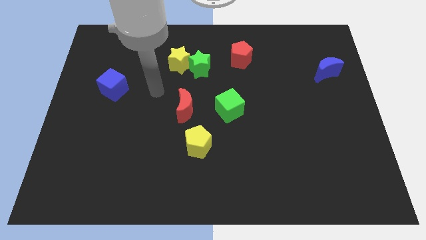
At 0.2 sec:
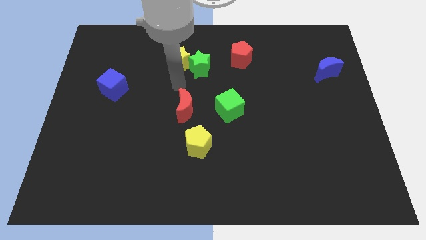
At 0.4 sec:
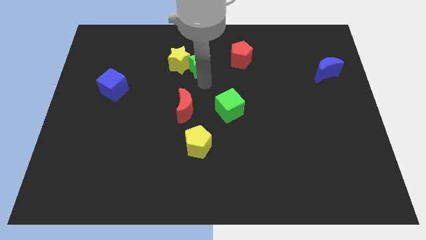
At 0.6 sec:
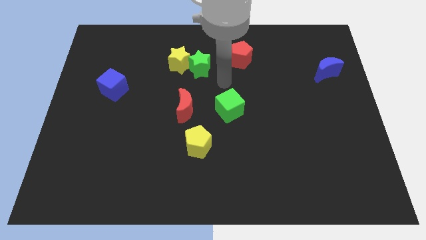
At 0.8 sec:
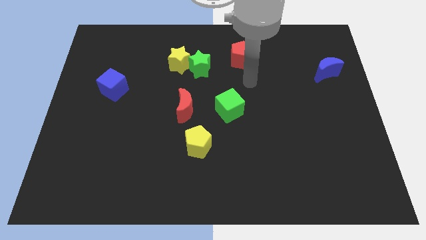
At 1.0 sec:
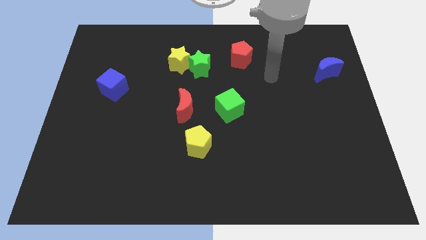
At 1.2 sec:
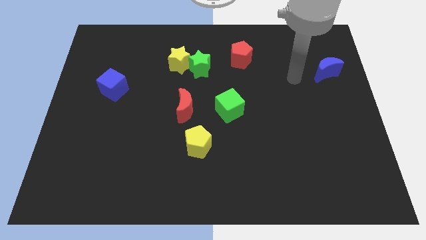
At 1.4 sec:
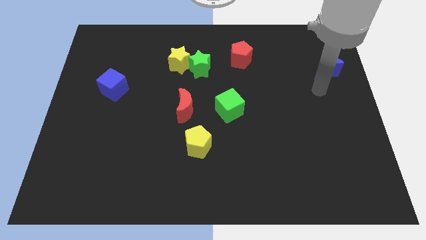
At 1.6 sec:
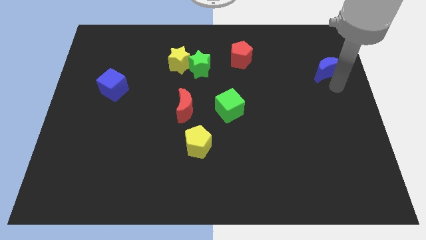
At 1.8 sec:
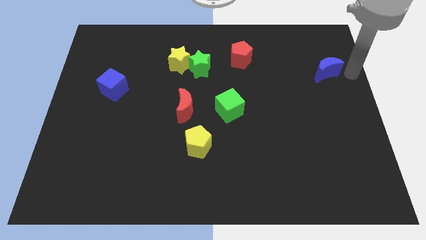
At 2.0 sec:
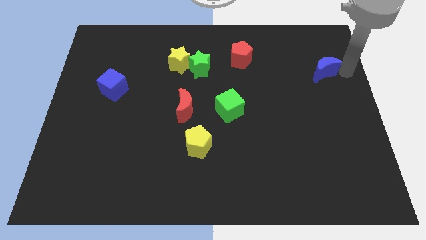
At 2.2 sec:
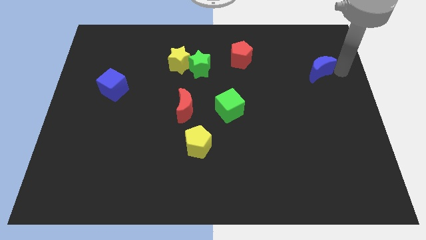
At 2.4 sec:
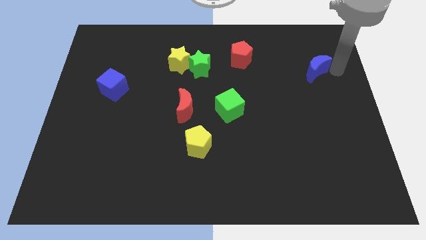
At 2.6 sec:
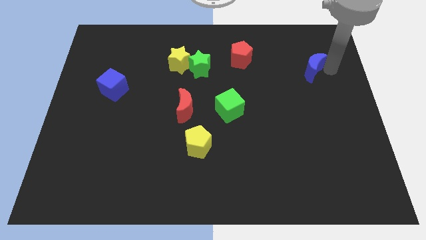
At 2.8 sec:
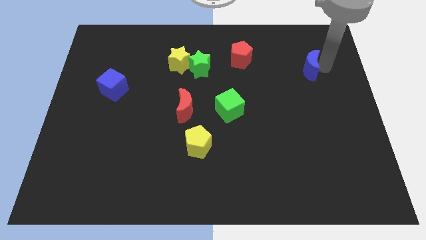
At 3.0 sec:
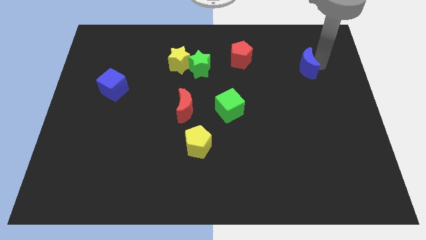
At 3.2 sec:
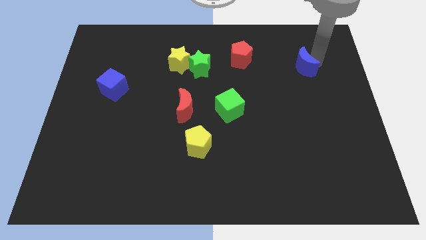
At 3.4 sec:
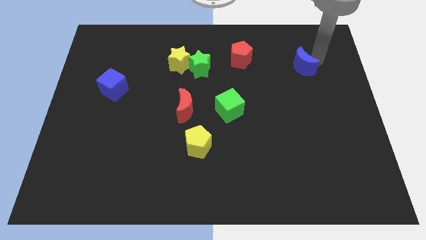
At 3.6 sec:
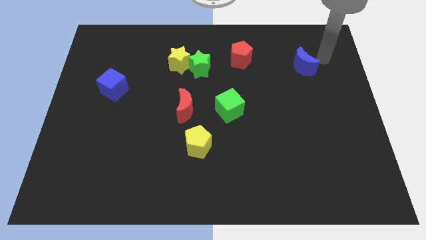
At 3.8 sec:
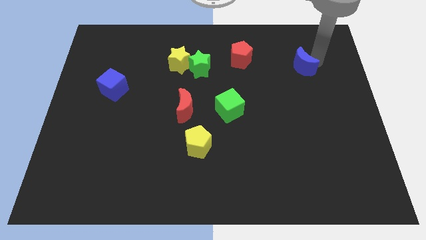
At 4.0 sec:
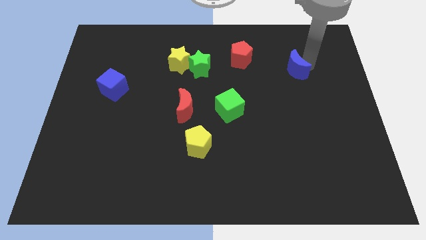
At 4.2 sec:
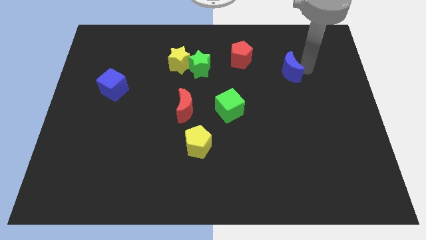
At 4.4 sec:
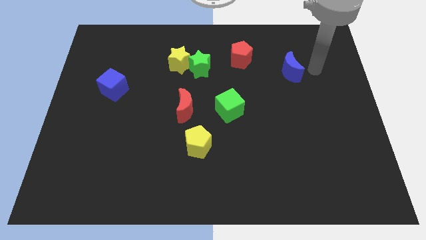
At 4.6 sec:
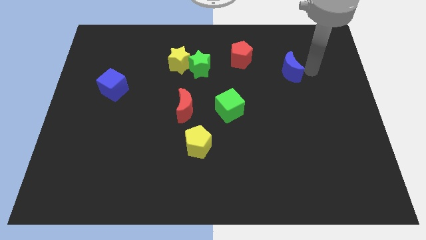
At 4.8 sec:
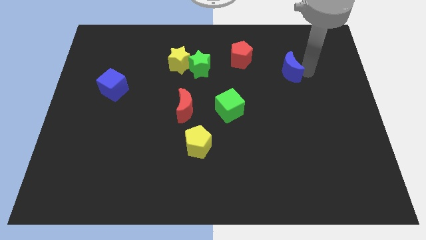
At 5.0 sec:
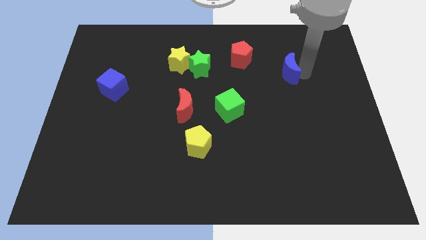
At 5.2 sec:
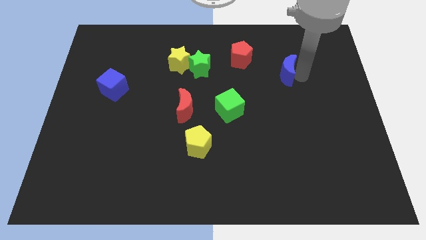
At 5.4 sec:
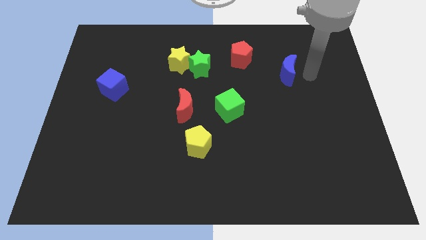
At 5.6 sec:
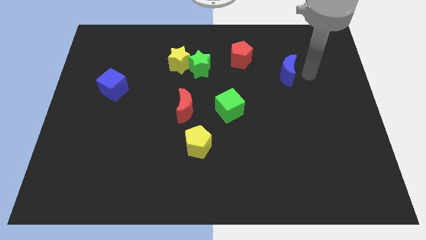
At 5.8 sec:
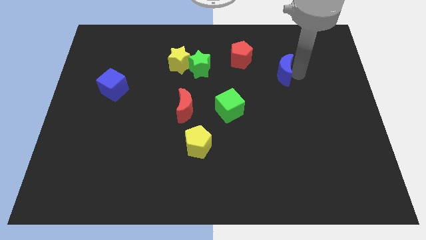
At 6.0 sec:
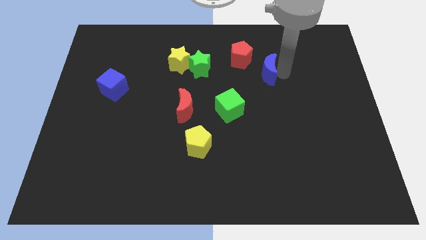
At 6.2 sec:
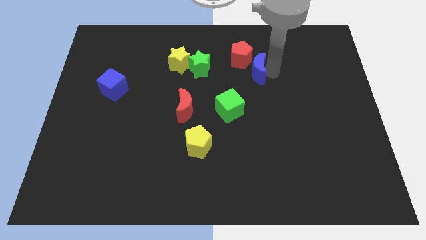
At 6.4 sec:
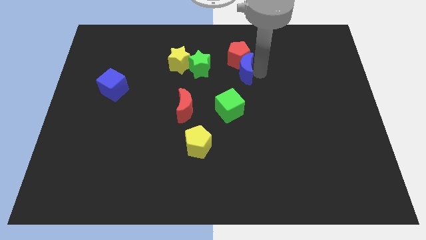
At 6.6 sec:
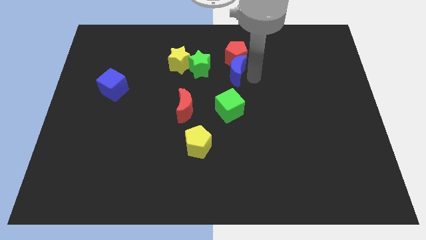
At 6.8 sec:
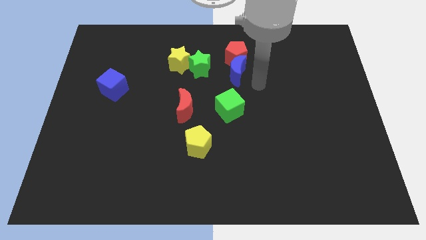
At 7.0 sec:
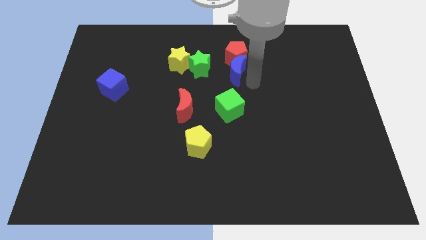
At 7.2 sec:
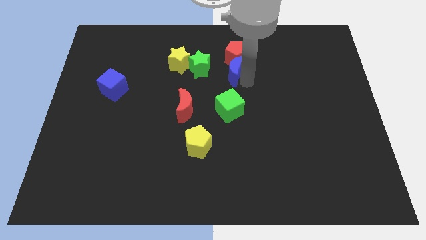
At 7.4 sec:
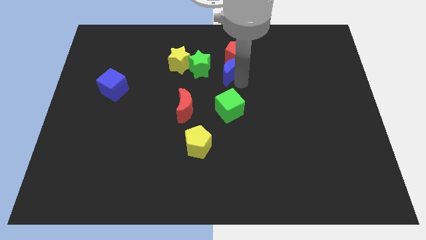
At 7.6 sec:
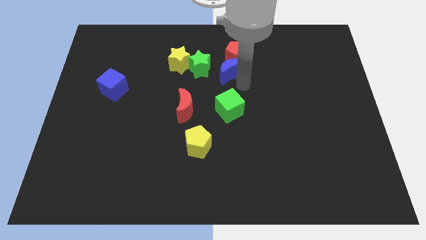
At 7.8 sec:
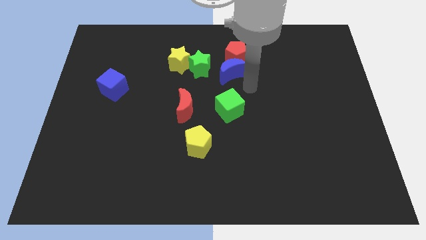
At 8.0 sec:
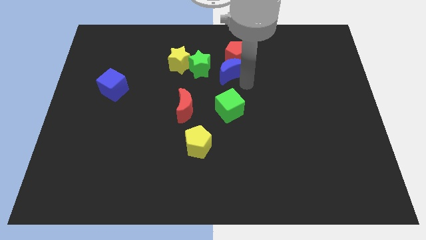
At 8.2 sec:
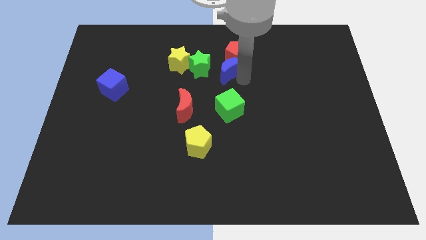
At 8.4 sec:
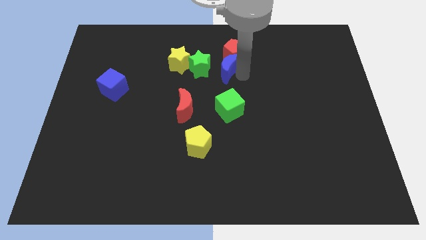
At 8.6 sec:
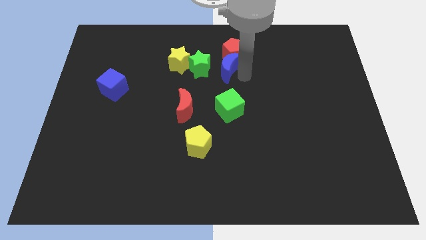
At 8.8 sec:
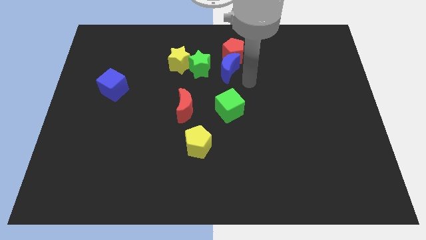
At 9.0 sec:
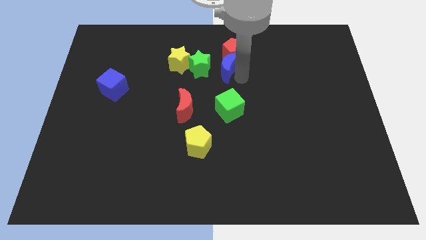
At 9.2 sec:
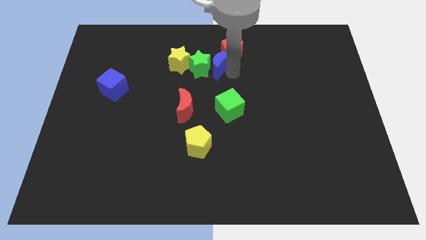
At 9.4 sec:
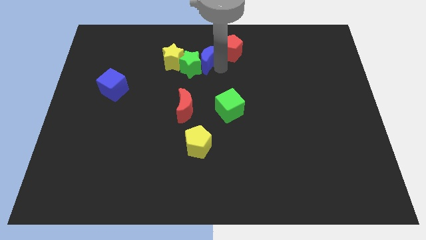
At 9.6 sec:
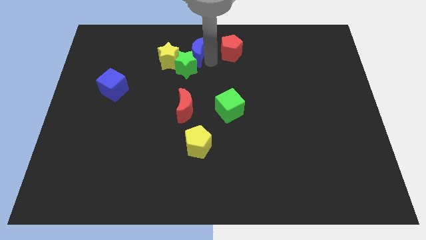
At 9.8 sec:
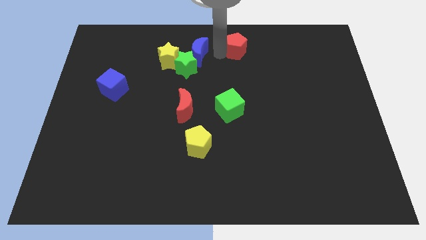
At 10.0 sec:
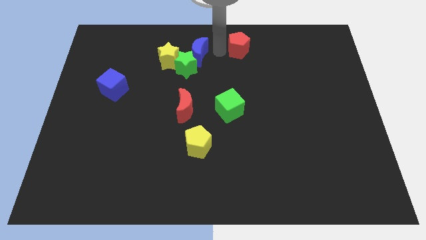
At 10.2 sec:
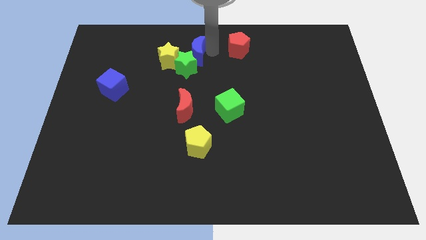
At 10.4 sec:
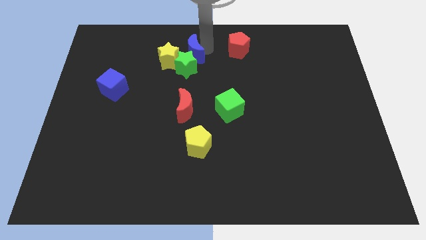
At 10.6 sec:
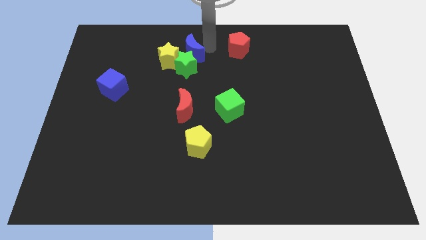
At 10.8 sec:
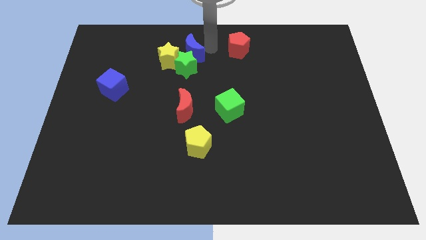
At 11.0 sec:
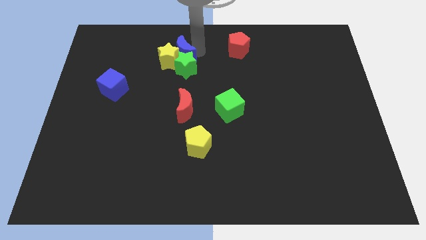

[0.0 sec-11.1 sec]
push the blue moon close to the yellow star

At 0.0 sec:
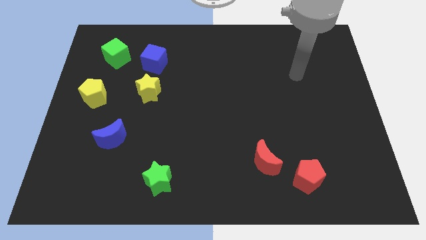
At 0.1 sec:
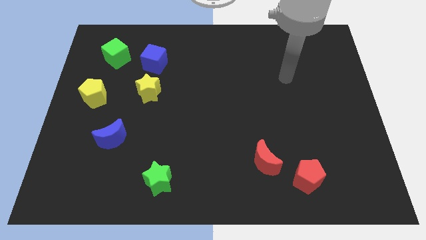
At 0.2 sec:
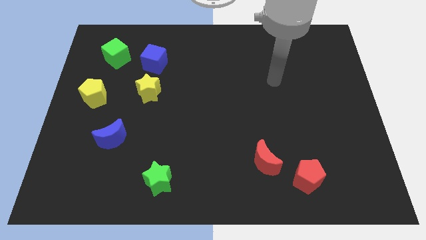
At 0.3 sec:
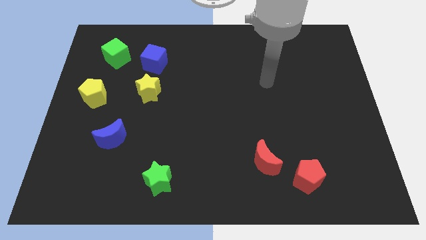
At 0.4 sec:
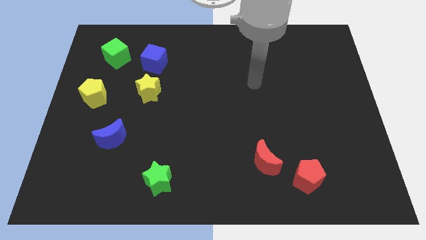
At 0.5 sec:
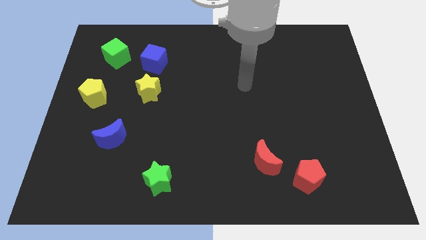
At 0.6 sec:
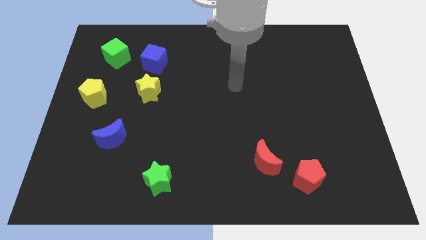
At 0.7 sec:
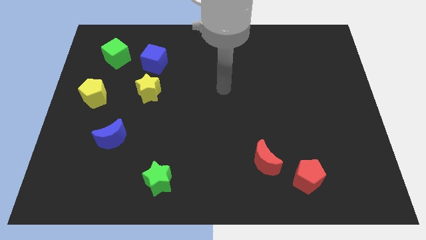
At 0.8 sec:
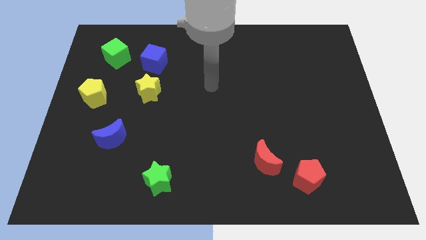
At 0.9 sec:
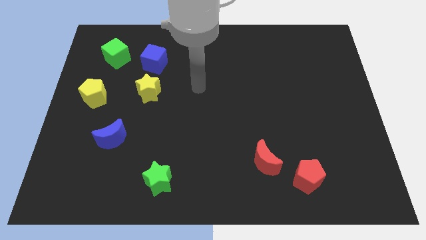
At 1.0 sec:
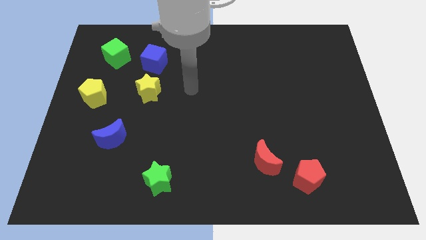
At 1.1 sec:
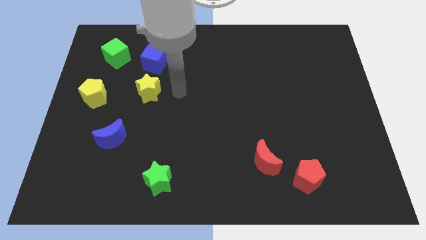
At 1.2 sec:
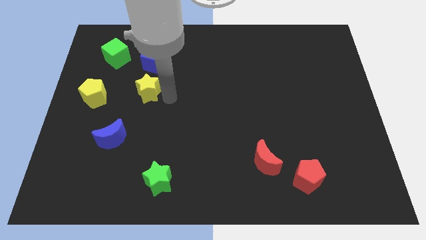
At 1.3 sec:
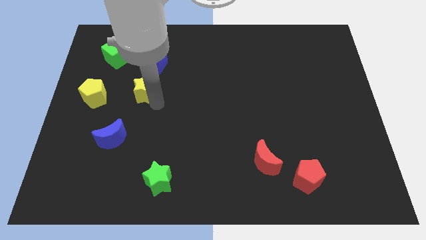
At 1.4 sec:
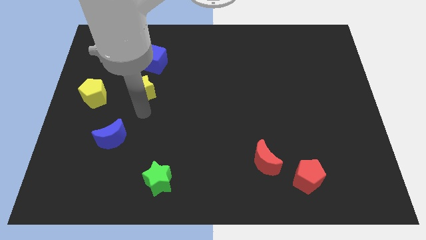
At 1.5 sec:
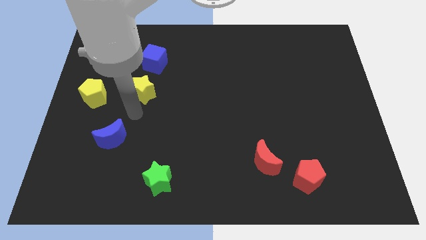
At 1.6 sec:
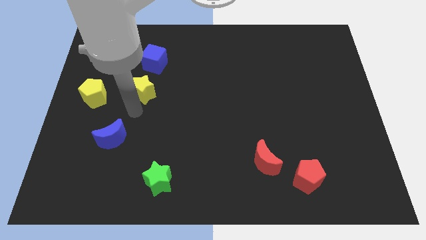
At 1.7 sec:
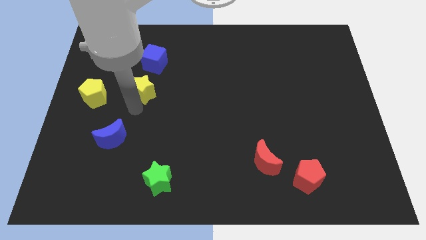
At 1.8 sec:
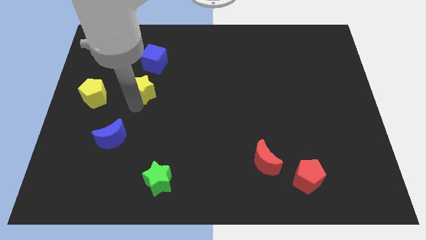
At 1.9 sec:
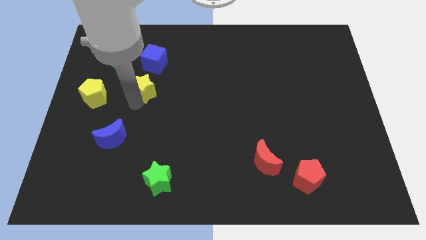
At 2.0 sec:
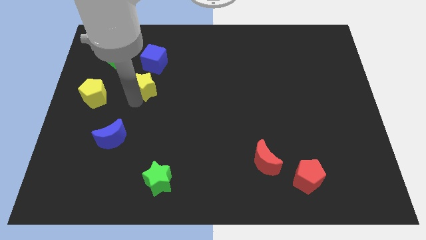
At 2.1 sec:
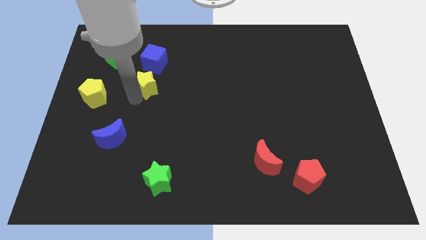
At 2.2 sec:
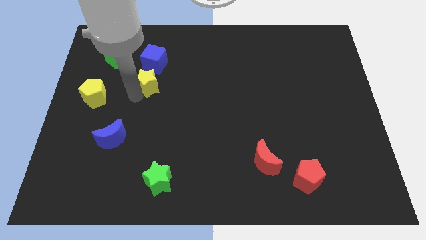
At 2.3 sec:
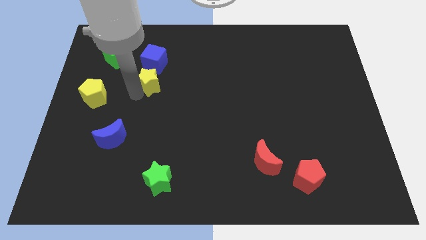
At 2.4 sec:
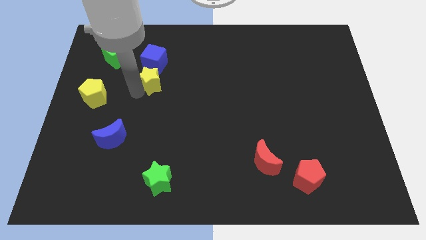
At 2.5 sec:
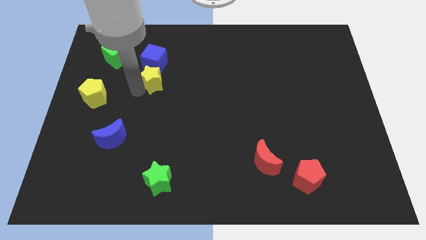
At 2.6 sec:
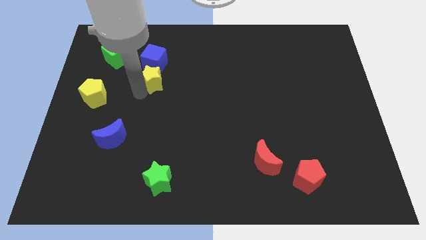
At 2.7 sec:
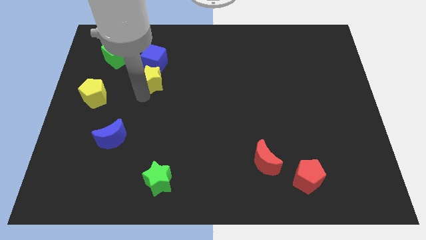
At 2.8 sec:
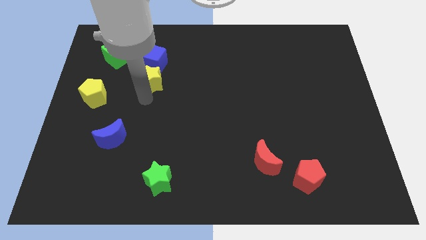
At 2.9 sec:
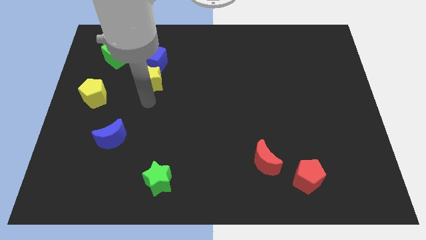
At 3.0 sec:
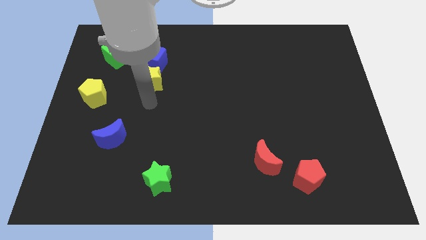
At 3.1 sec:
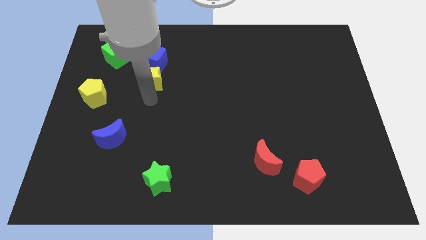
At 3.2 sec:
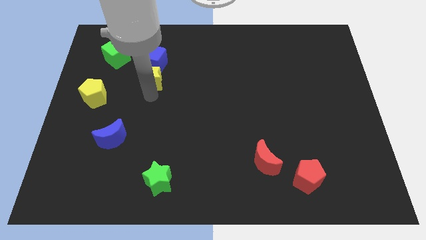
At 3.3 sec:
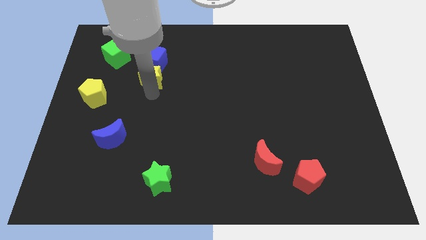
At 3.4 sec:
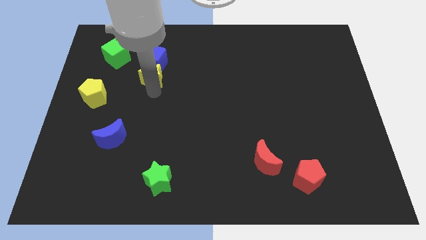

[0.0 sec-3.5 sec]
move the yellow star to the blue cube
